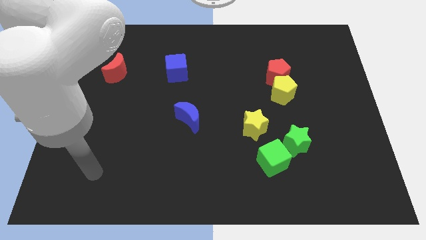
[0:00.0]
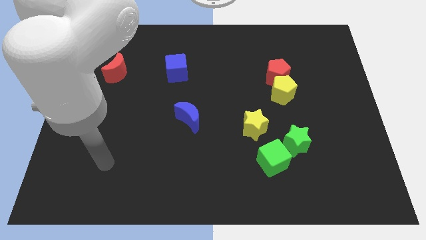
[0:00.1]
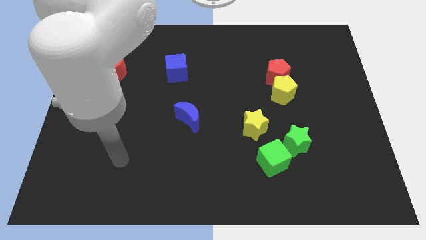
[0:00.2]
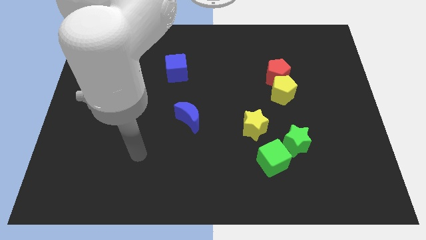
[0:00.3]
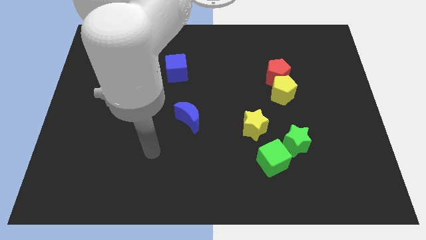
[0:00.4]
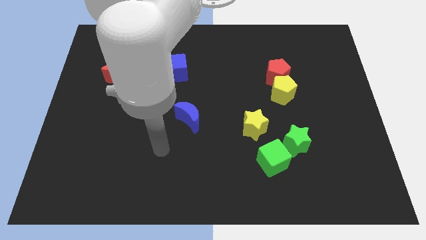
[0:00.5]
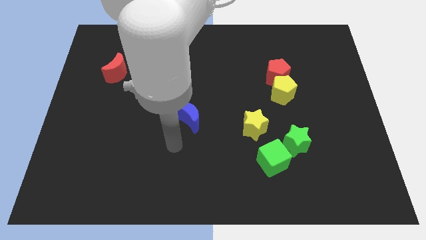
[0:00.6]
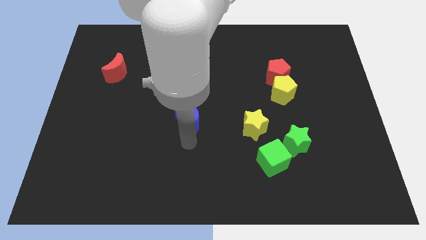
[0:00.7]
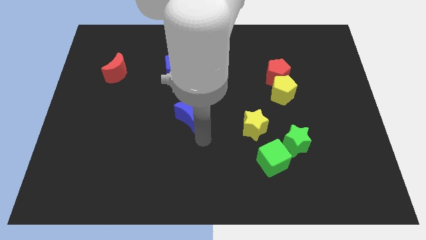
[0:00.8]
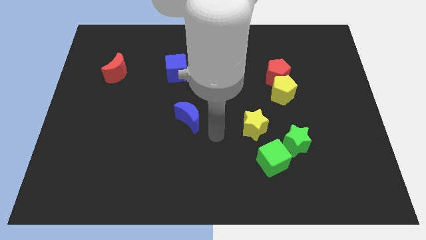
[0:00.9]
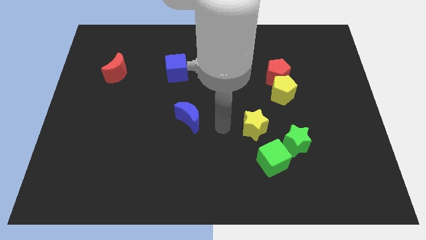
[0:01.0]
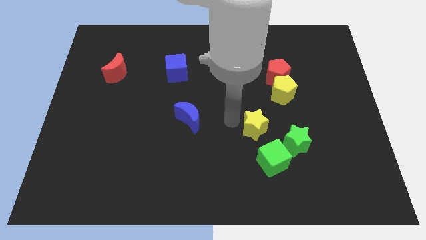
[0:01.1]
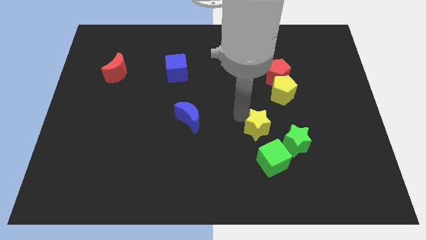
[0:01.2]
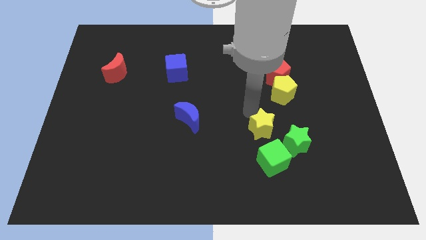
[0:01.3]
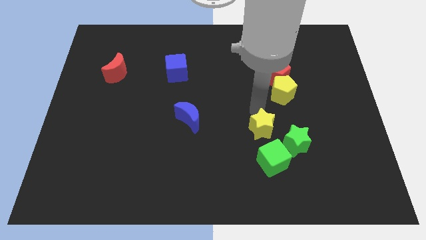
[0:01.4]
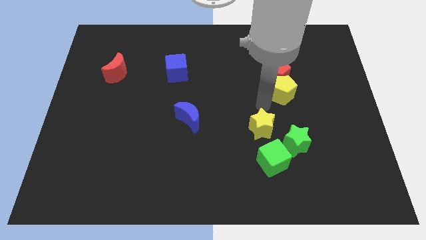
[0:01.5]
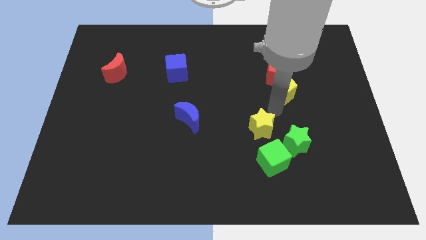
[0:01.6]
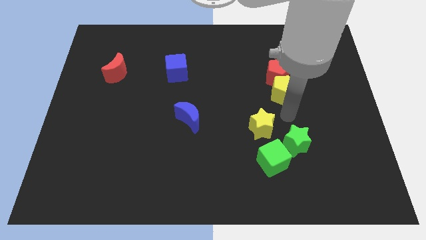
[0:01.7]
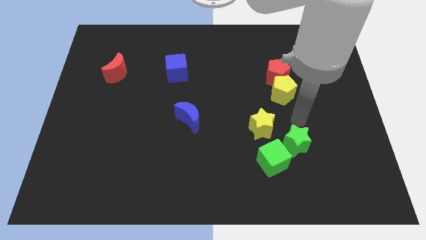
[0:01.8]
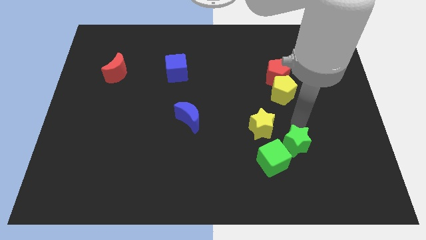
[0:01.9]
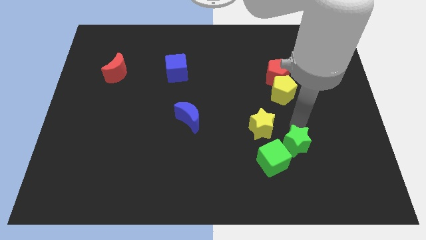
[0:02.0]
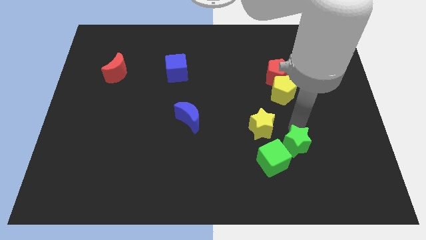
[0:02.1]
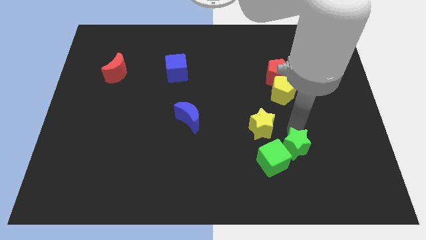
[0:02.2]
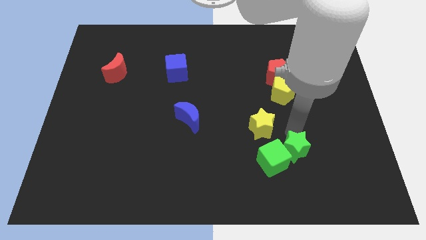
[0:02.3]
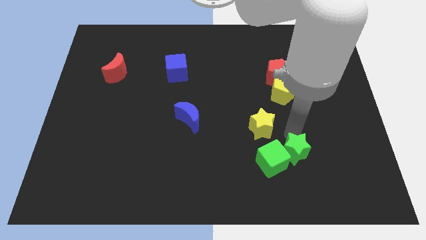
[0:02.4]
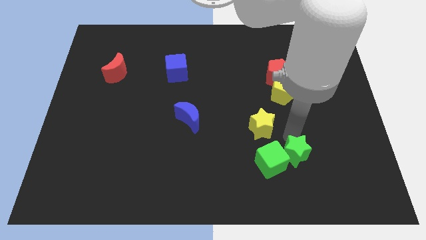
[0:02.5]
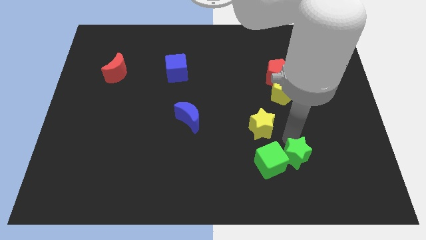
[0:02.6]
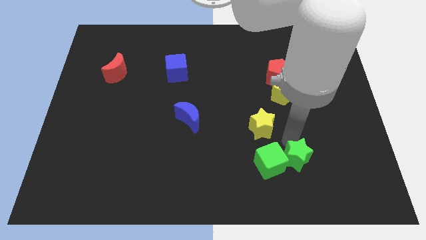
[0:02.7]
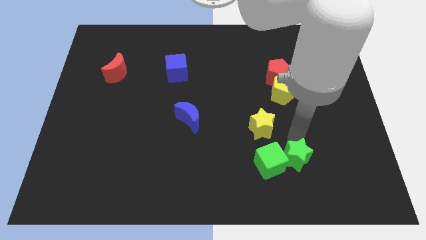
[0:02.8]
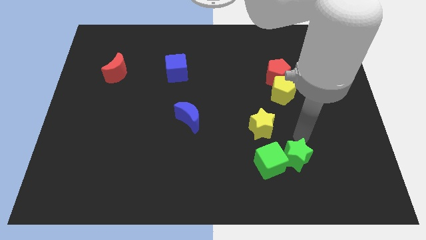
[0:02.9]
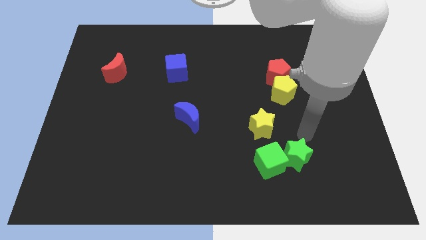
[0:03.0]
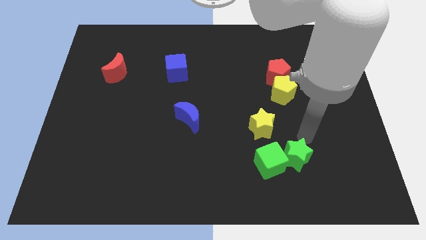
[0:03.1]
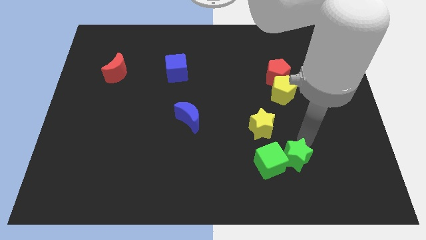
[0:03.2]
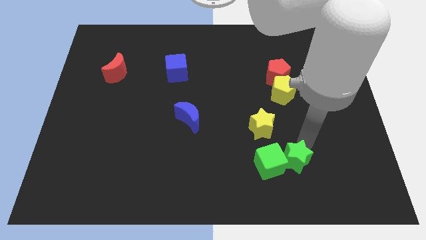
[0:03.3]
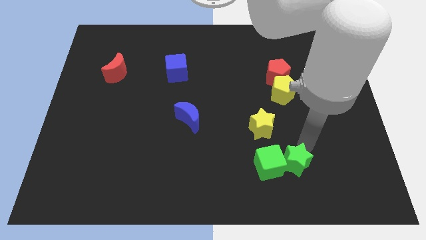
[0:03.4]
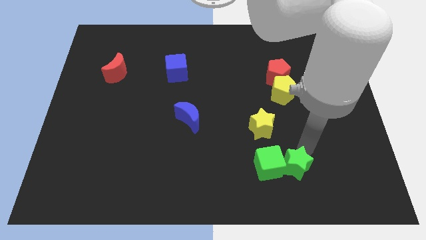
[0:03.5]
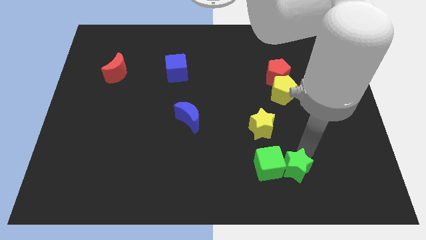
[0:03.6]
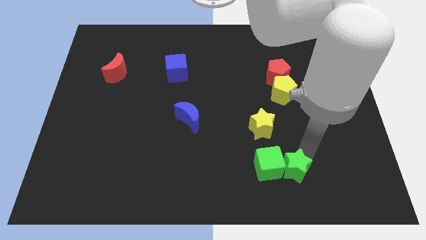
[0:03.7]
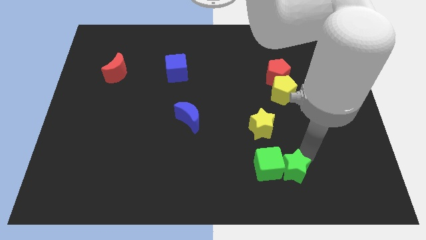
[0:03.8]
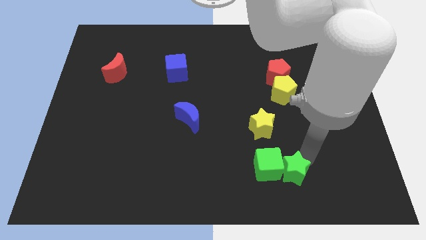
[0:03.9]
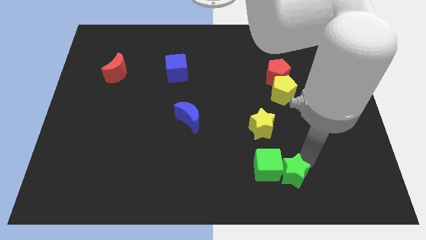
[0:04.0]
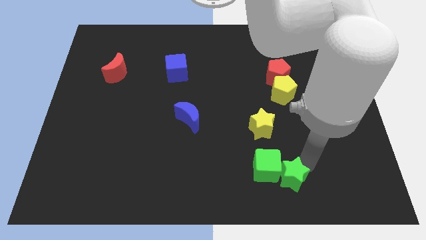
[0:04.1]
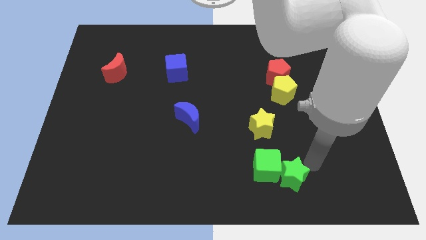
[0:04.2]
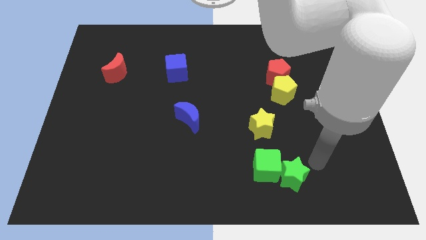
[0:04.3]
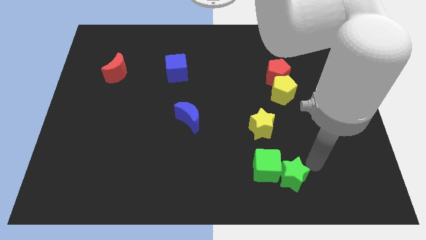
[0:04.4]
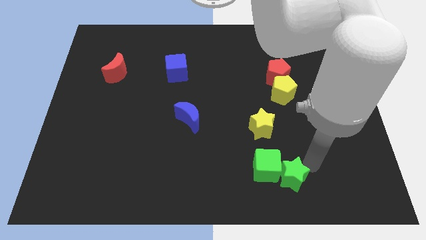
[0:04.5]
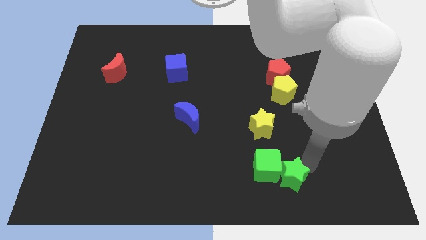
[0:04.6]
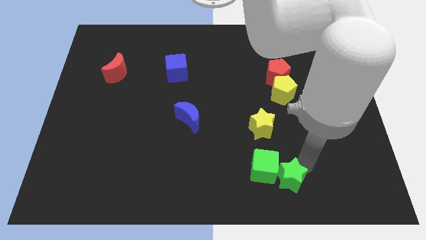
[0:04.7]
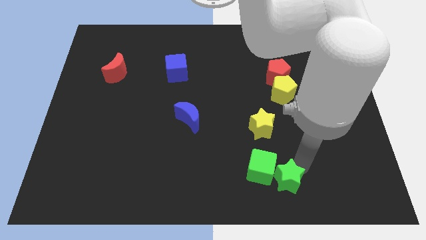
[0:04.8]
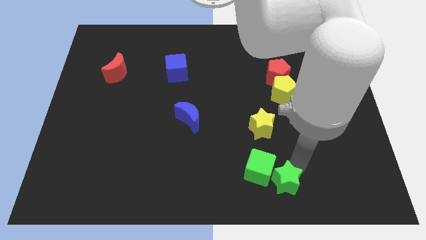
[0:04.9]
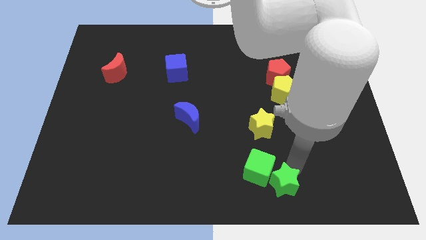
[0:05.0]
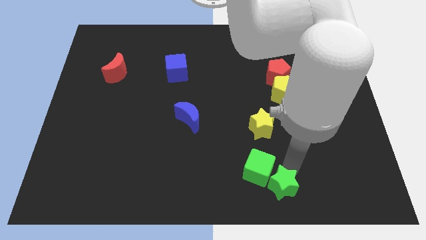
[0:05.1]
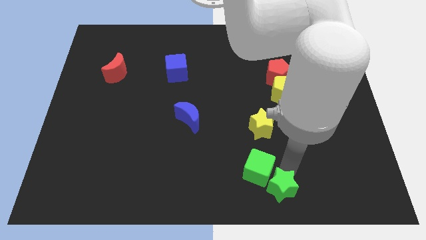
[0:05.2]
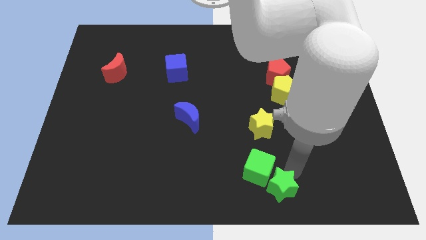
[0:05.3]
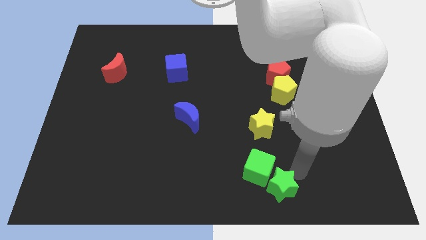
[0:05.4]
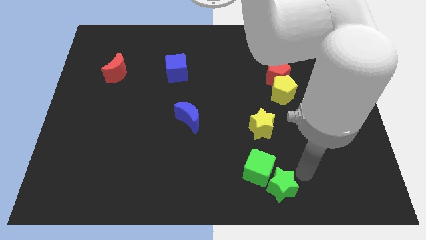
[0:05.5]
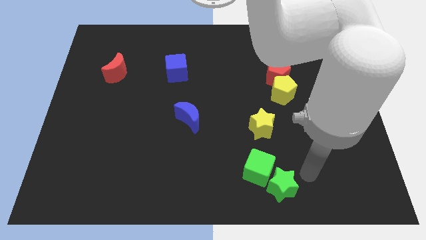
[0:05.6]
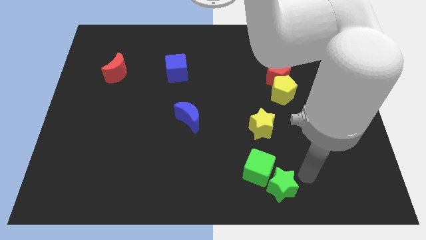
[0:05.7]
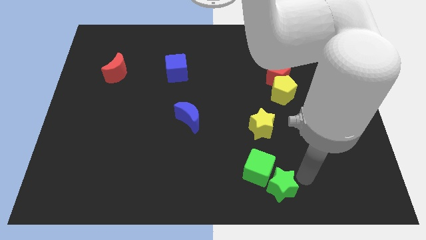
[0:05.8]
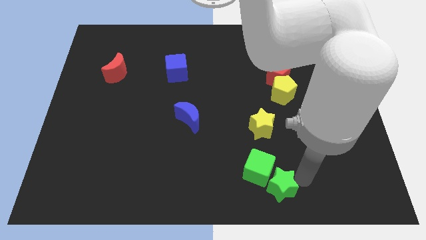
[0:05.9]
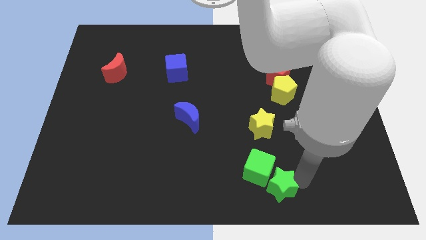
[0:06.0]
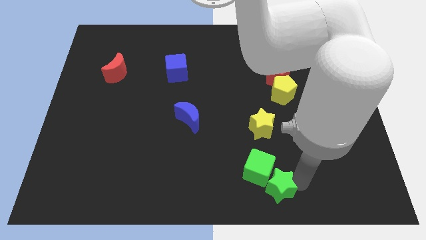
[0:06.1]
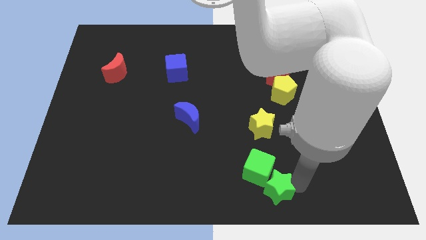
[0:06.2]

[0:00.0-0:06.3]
push the green star to the bottom side

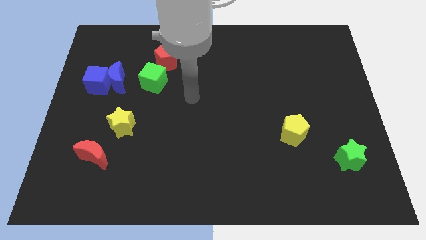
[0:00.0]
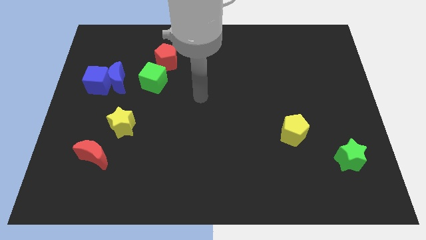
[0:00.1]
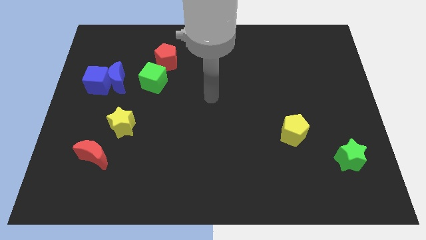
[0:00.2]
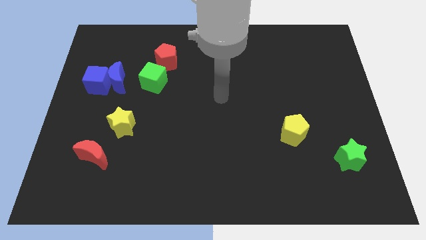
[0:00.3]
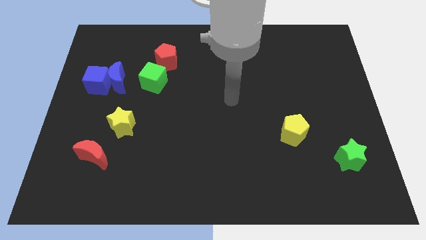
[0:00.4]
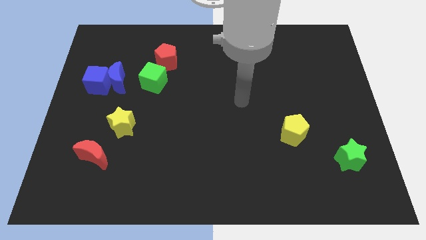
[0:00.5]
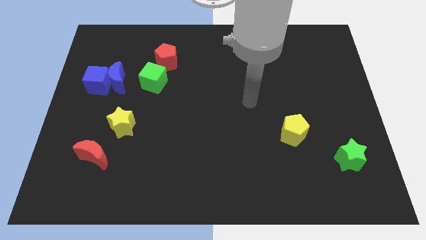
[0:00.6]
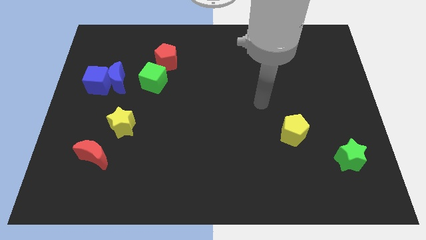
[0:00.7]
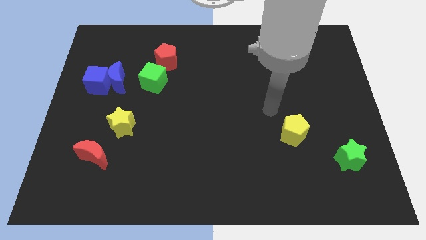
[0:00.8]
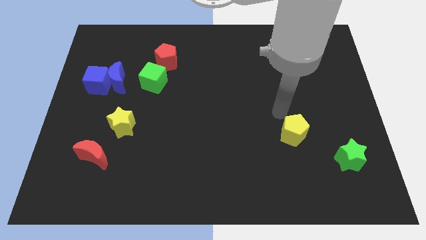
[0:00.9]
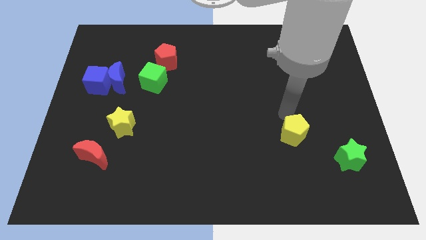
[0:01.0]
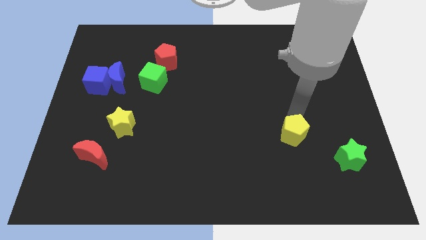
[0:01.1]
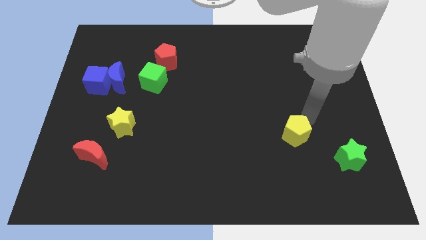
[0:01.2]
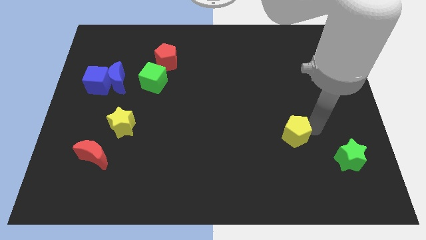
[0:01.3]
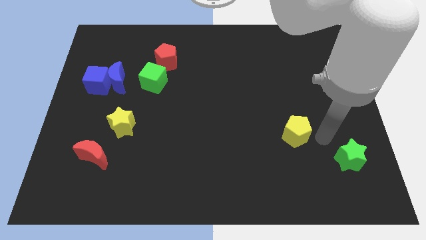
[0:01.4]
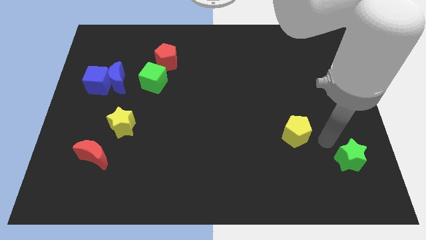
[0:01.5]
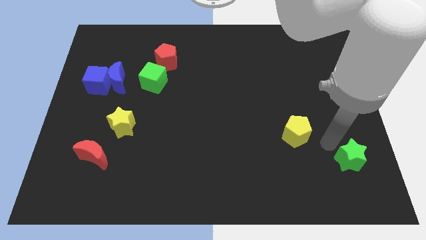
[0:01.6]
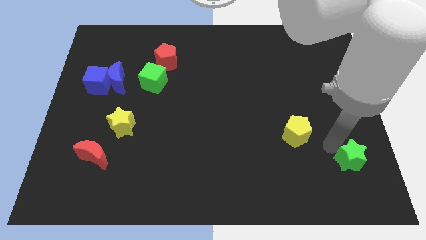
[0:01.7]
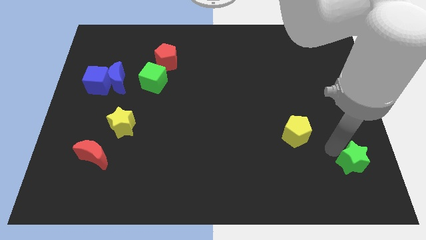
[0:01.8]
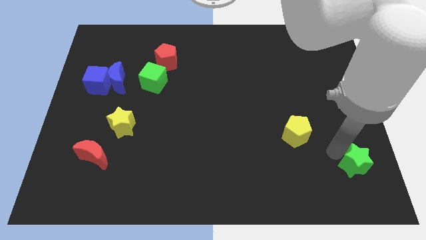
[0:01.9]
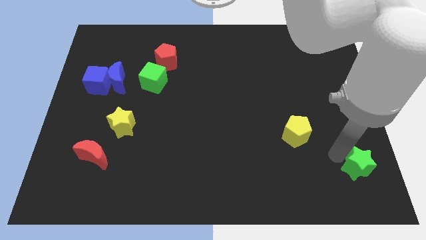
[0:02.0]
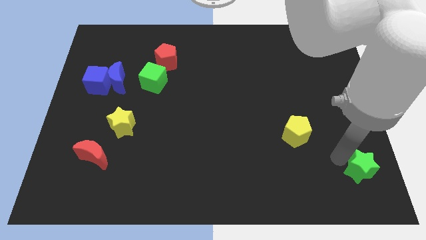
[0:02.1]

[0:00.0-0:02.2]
move the green star to the lower right corner
